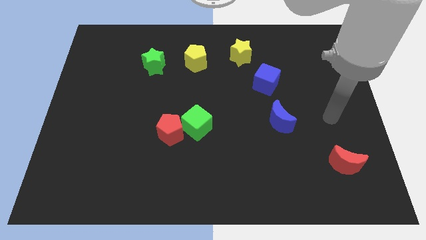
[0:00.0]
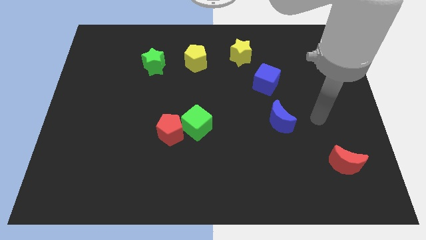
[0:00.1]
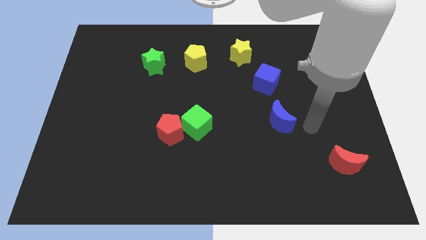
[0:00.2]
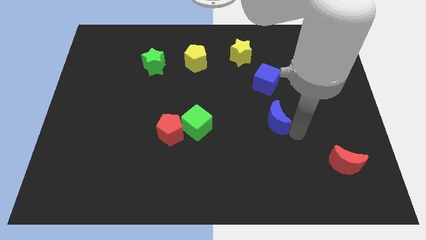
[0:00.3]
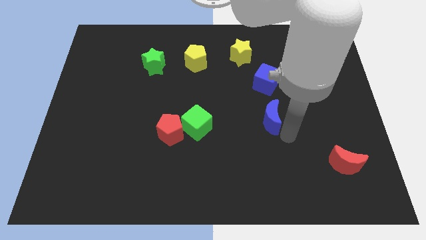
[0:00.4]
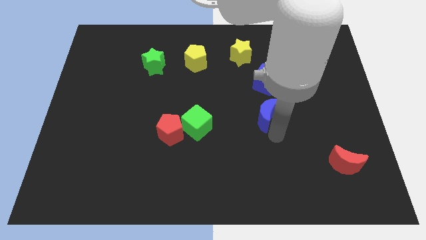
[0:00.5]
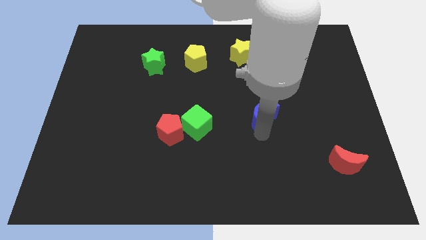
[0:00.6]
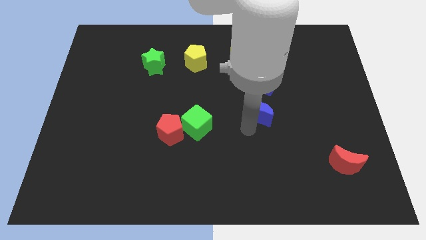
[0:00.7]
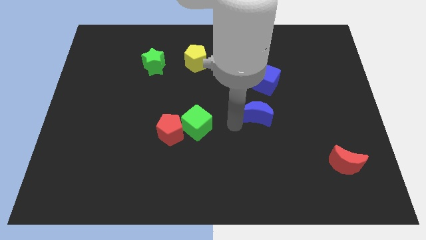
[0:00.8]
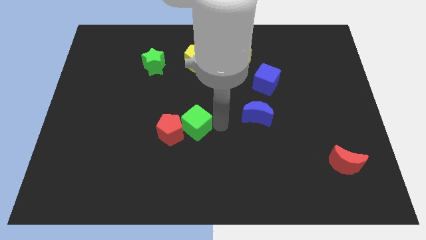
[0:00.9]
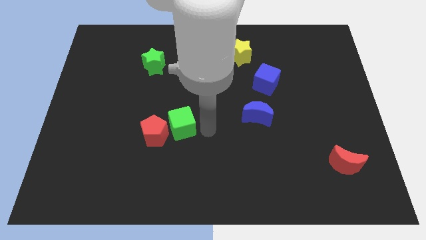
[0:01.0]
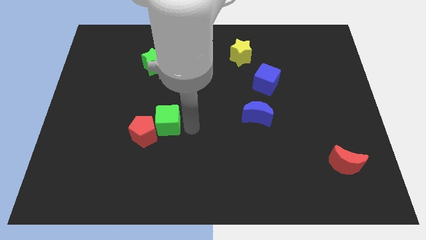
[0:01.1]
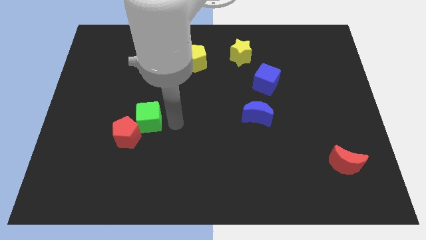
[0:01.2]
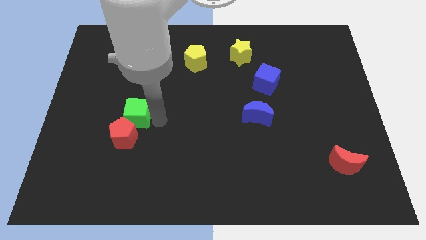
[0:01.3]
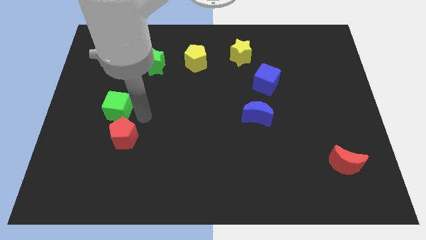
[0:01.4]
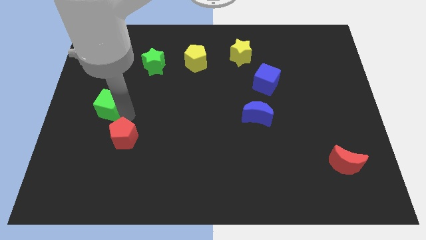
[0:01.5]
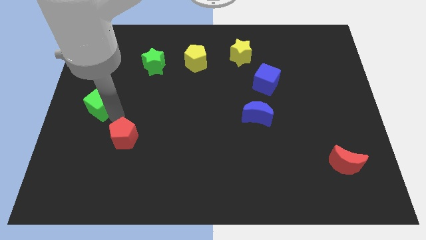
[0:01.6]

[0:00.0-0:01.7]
separate the red pentagon from the green cube

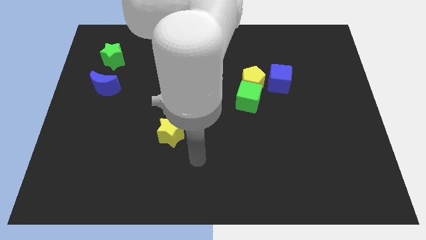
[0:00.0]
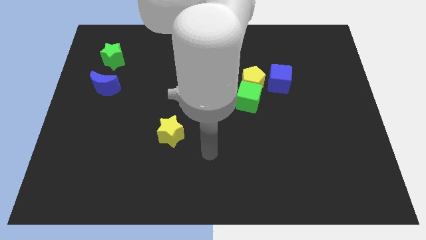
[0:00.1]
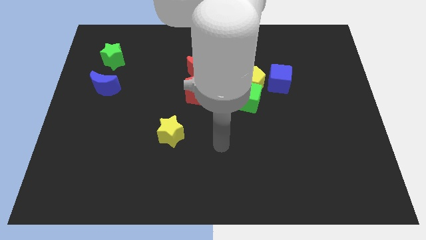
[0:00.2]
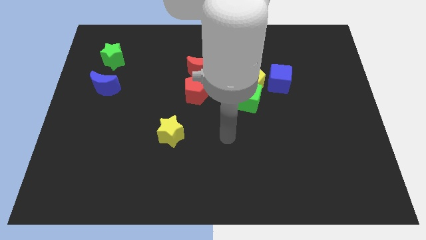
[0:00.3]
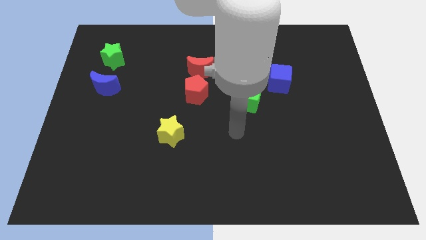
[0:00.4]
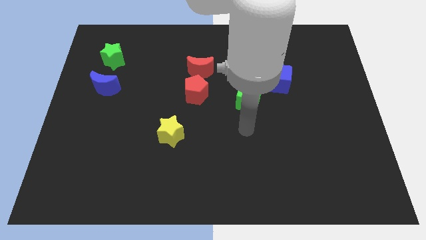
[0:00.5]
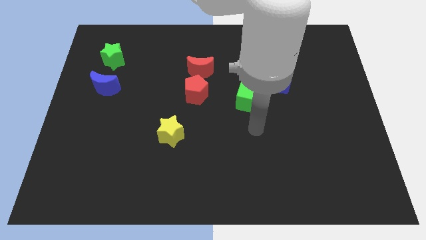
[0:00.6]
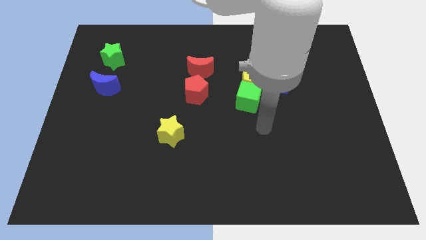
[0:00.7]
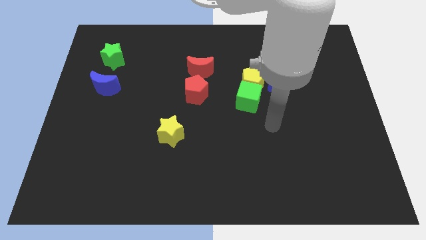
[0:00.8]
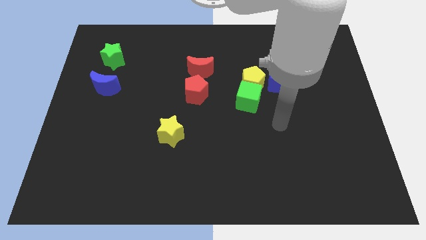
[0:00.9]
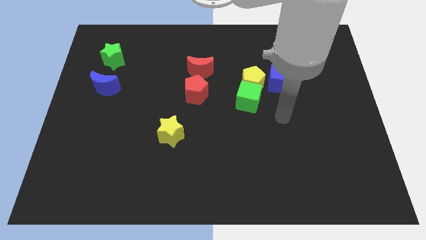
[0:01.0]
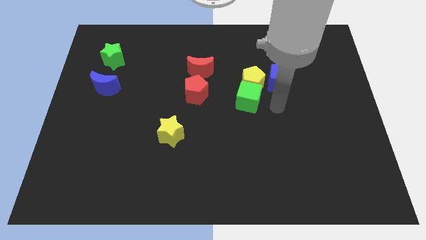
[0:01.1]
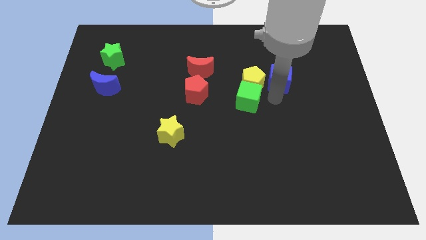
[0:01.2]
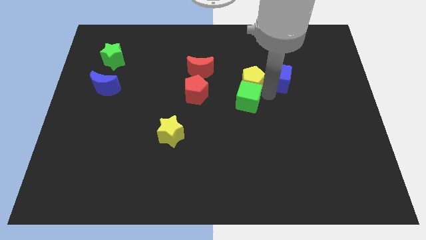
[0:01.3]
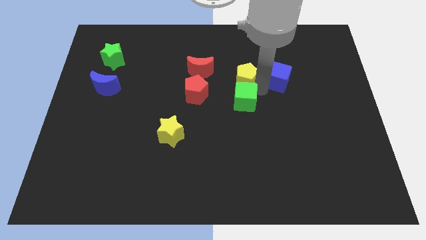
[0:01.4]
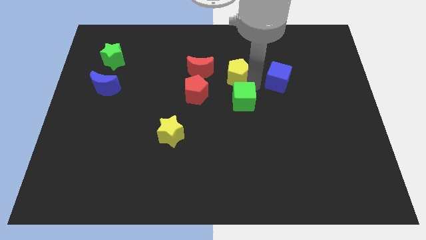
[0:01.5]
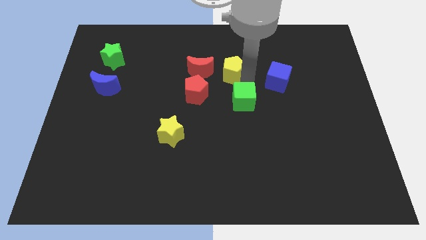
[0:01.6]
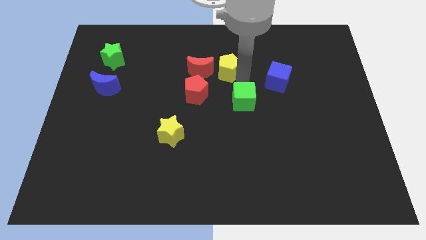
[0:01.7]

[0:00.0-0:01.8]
move the yellow pentagon away from the green cube and blue cube

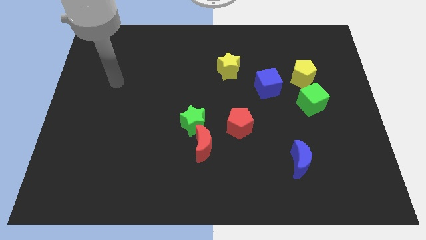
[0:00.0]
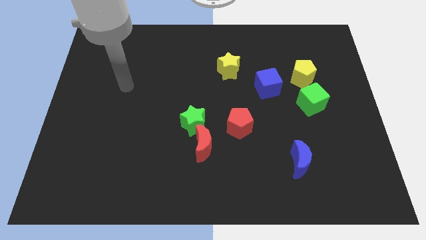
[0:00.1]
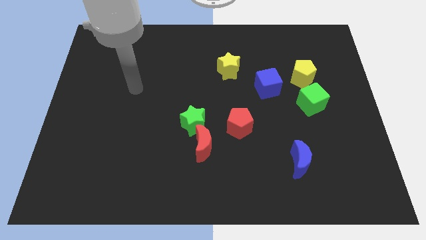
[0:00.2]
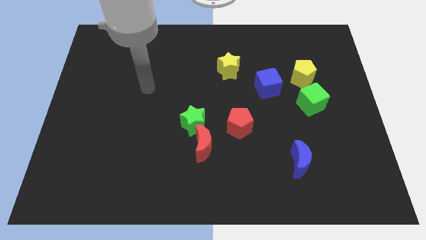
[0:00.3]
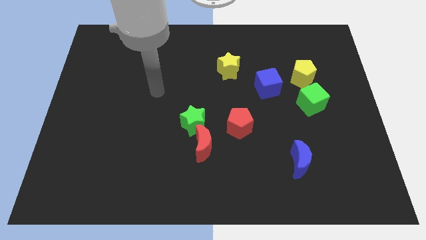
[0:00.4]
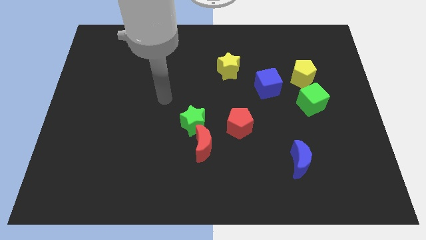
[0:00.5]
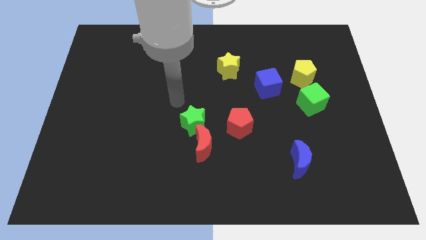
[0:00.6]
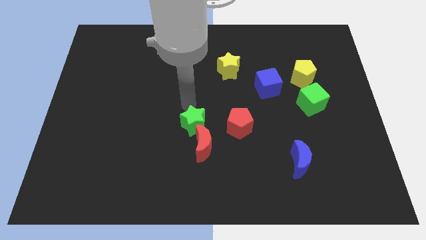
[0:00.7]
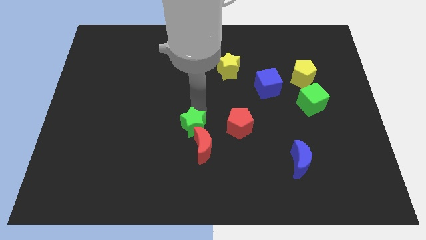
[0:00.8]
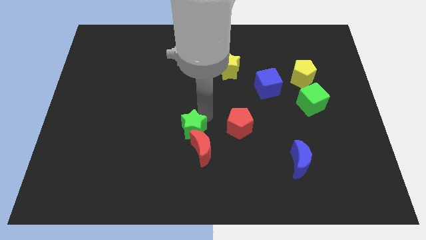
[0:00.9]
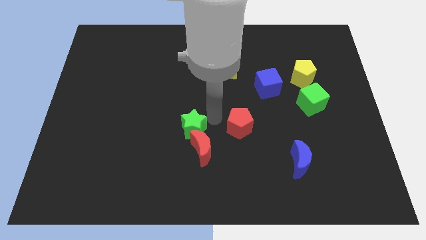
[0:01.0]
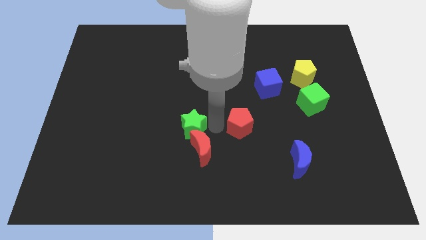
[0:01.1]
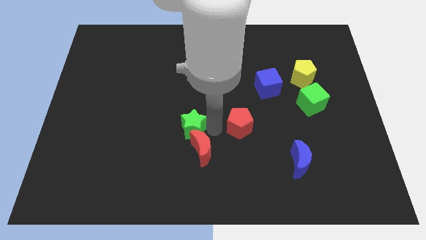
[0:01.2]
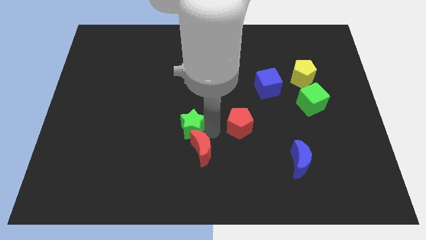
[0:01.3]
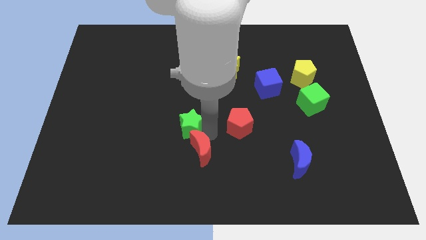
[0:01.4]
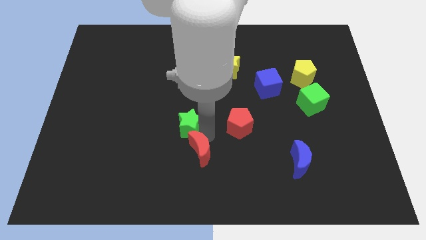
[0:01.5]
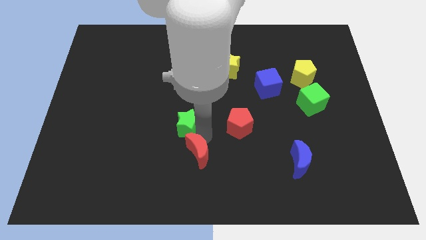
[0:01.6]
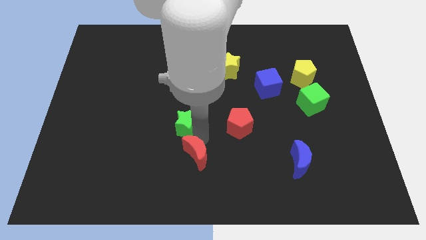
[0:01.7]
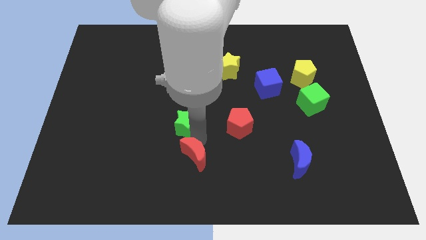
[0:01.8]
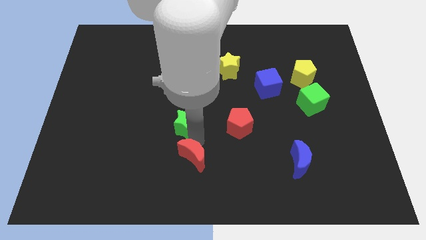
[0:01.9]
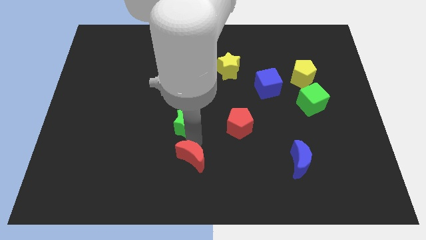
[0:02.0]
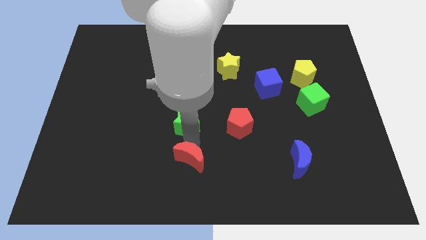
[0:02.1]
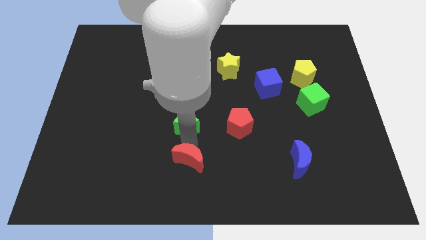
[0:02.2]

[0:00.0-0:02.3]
move the red moon away from the green star and red pentagon

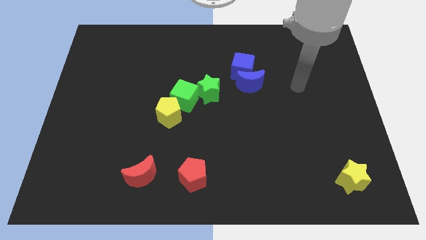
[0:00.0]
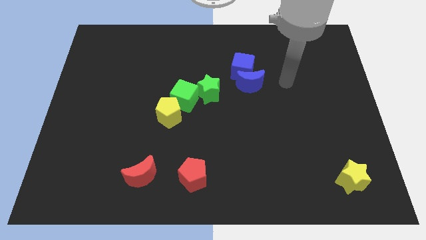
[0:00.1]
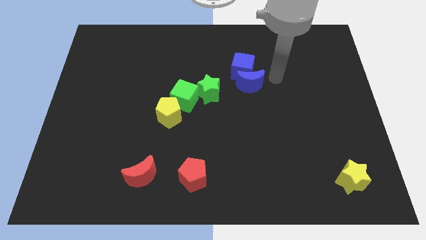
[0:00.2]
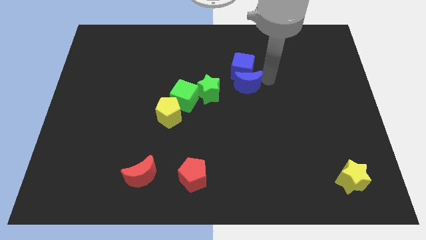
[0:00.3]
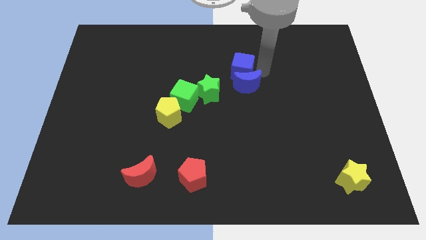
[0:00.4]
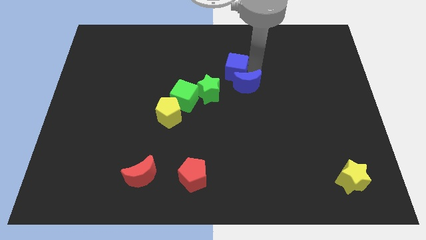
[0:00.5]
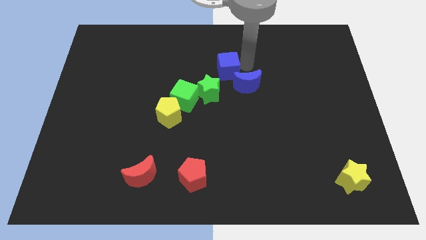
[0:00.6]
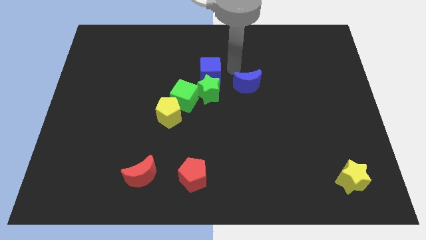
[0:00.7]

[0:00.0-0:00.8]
pull the blue moon apart from the blue cube

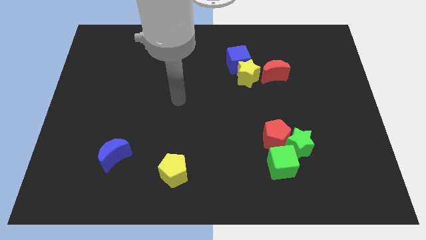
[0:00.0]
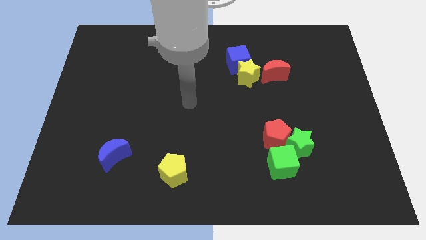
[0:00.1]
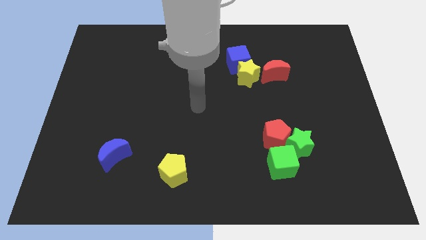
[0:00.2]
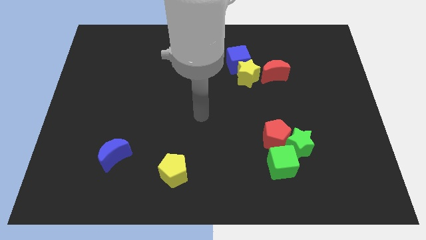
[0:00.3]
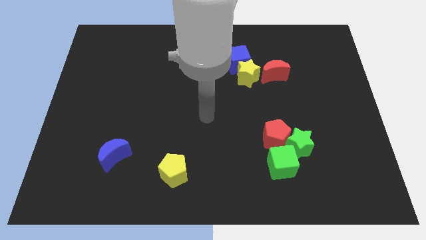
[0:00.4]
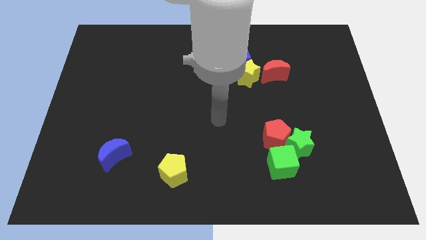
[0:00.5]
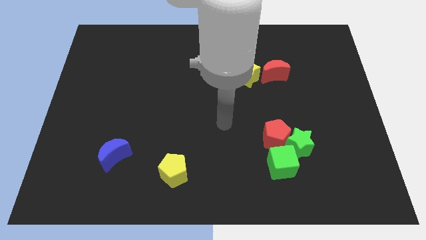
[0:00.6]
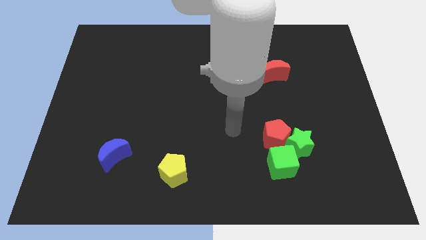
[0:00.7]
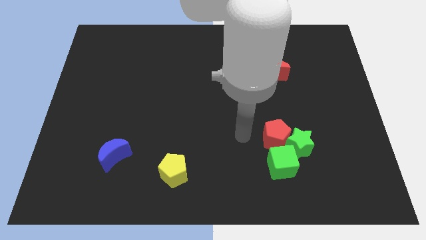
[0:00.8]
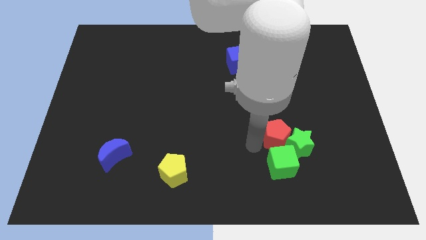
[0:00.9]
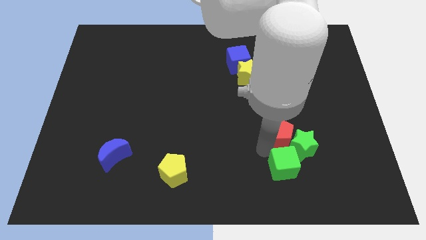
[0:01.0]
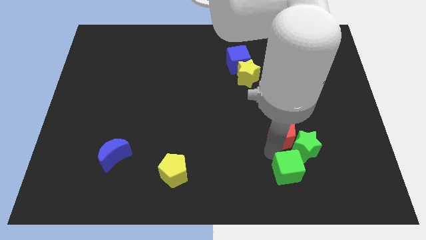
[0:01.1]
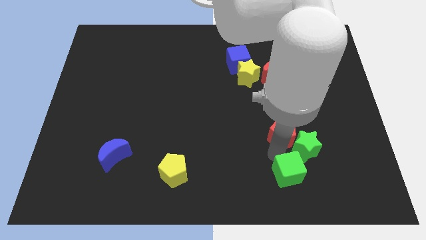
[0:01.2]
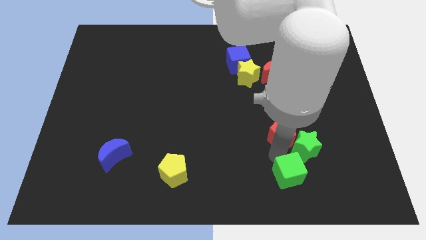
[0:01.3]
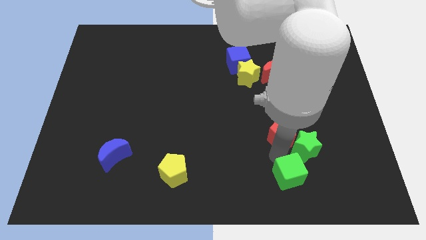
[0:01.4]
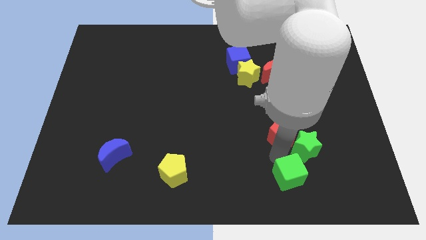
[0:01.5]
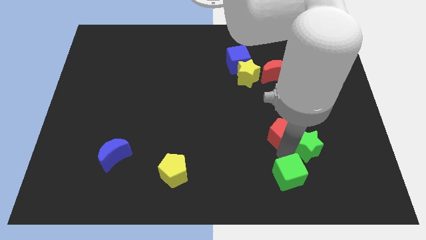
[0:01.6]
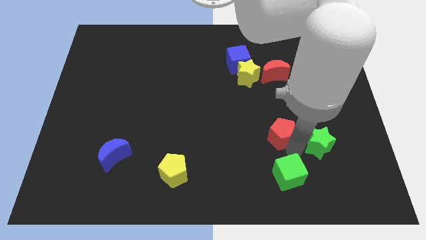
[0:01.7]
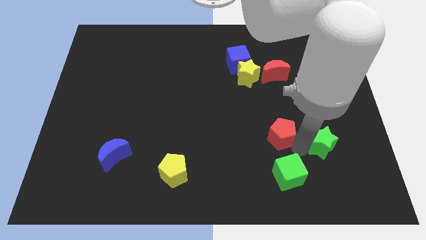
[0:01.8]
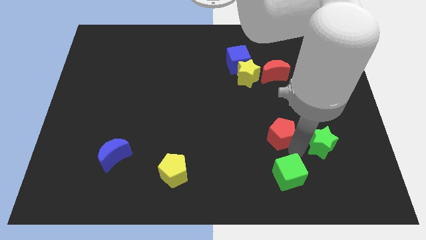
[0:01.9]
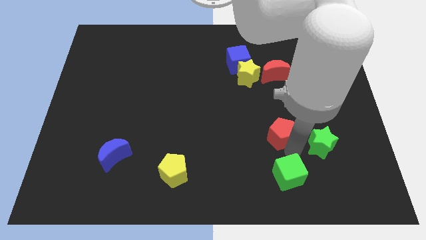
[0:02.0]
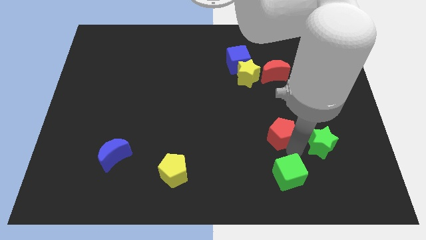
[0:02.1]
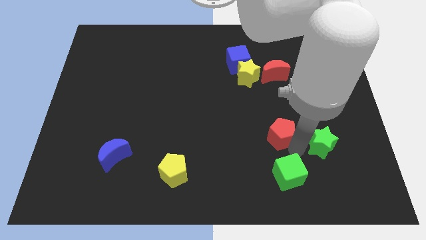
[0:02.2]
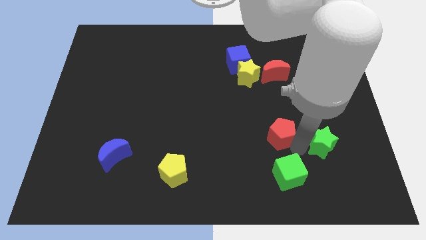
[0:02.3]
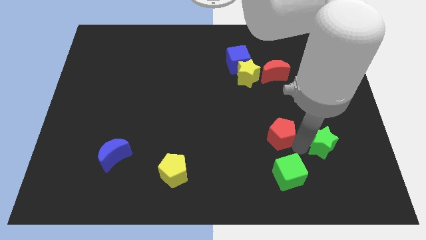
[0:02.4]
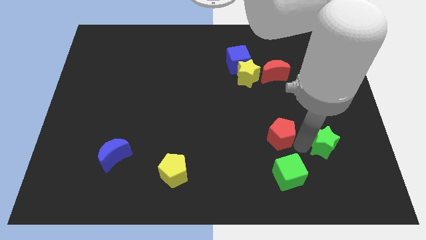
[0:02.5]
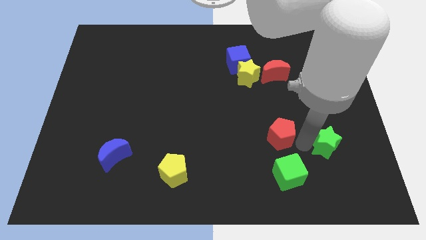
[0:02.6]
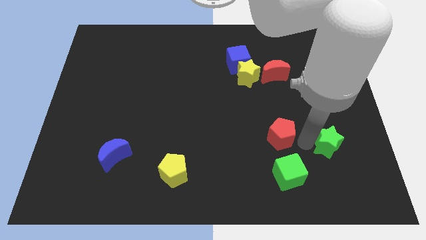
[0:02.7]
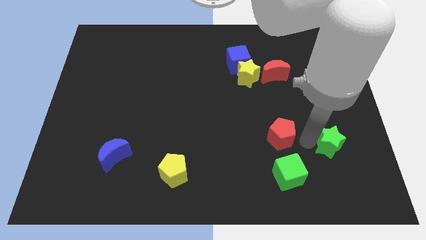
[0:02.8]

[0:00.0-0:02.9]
move the green star away from the red pentagon and green cube
